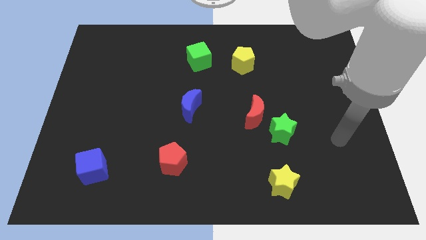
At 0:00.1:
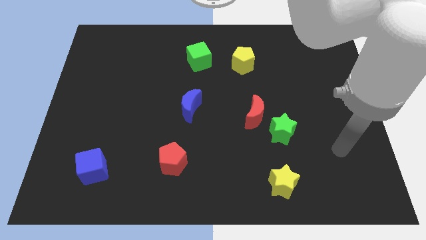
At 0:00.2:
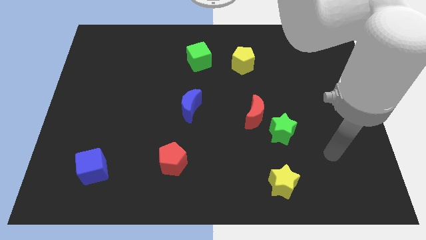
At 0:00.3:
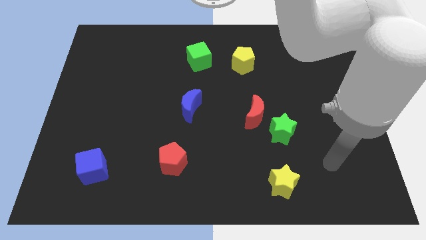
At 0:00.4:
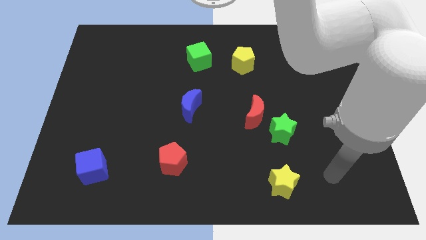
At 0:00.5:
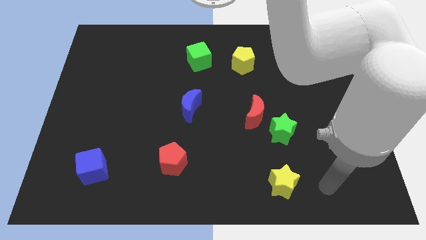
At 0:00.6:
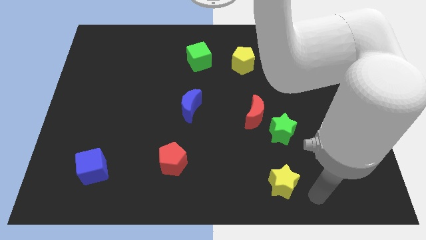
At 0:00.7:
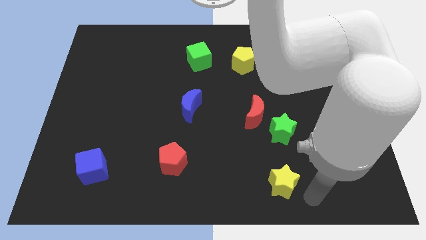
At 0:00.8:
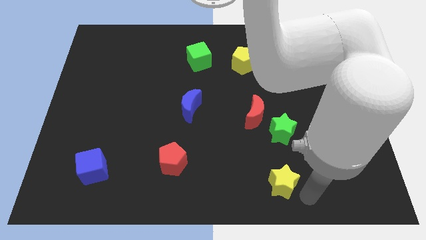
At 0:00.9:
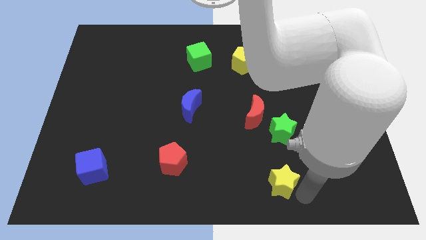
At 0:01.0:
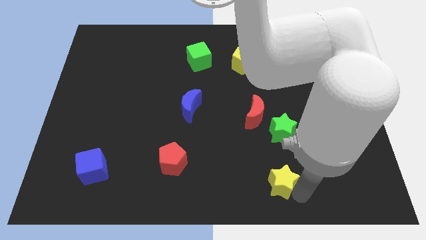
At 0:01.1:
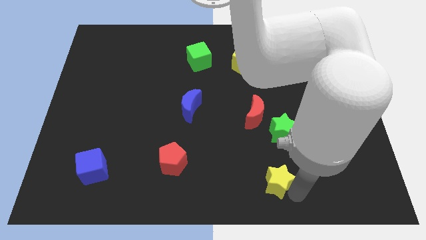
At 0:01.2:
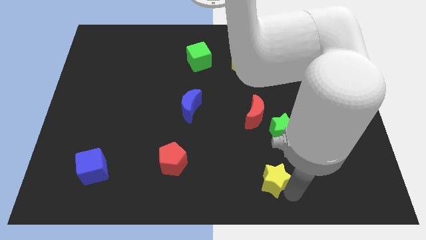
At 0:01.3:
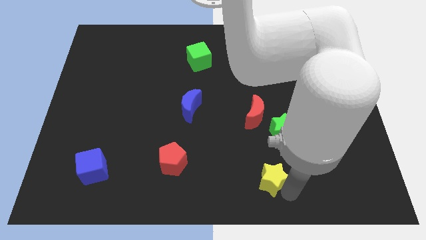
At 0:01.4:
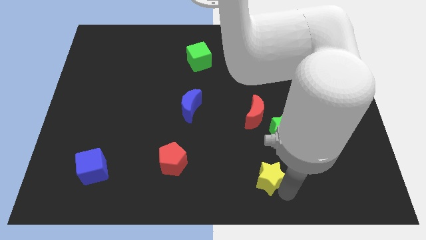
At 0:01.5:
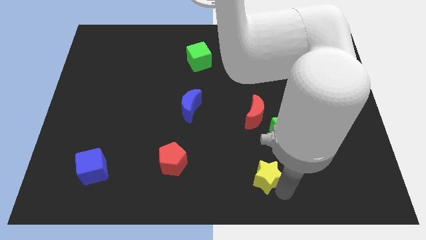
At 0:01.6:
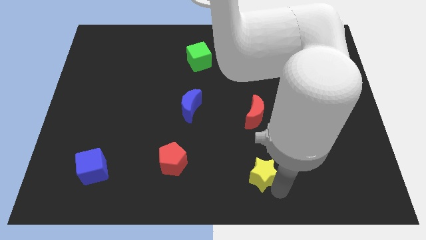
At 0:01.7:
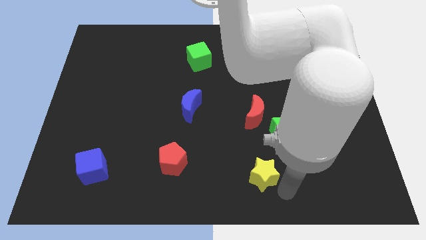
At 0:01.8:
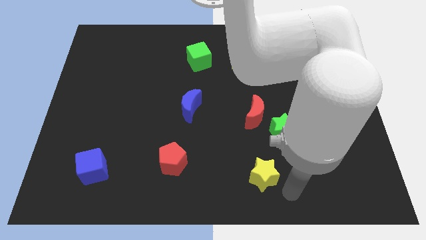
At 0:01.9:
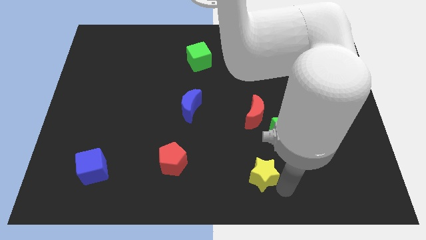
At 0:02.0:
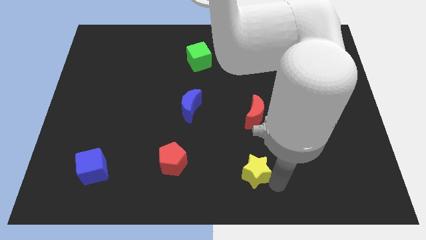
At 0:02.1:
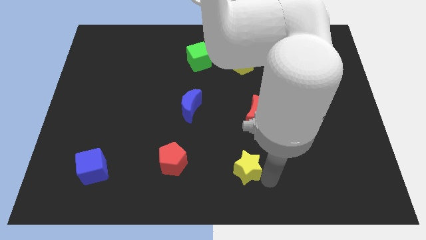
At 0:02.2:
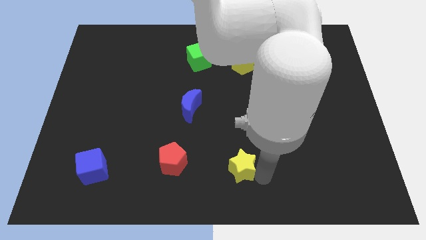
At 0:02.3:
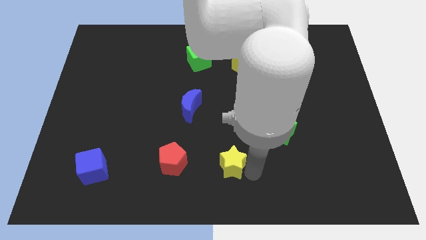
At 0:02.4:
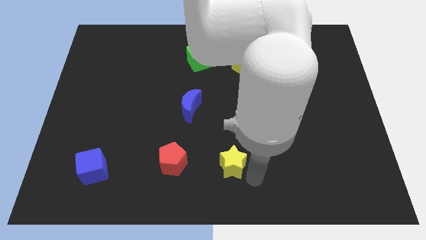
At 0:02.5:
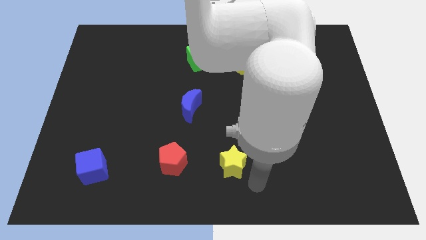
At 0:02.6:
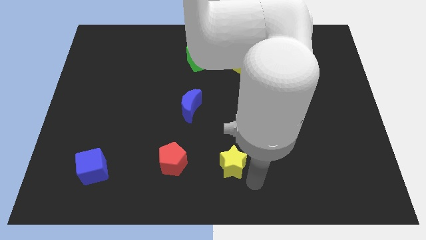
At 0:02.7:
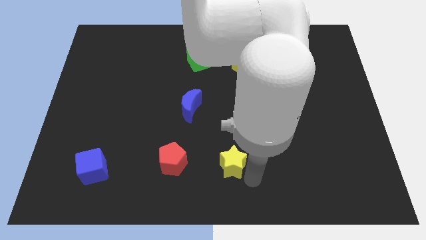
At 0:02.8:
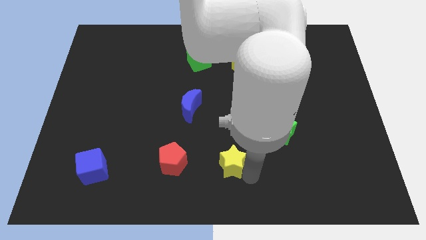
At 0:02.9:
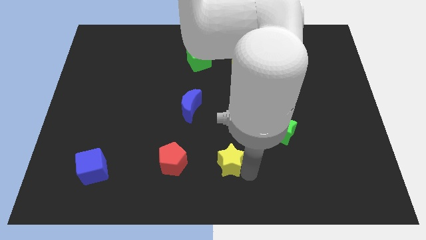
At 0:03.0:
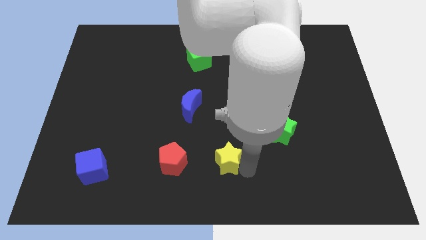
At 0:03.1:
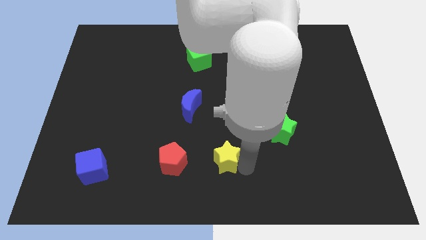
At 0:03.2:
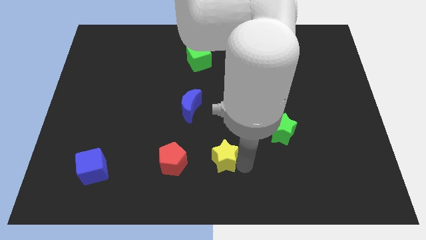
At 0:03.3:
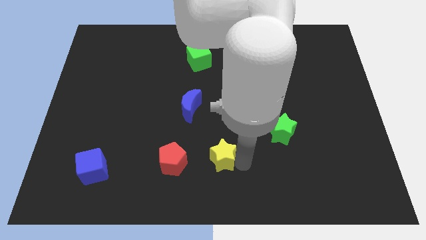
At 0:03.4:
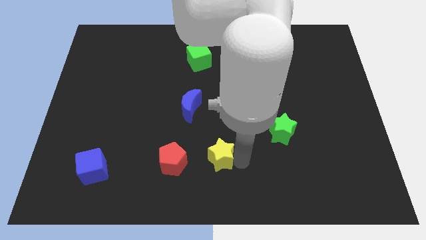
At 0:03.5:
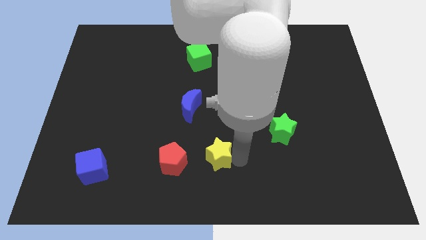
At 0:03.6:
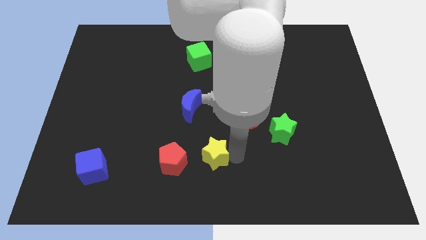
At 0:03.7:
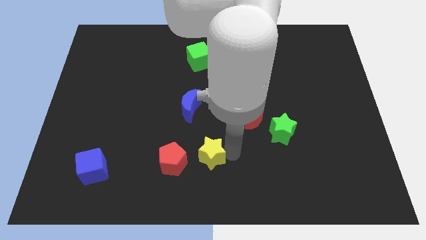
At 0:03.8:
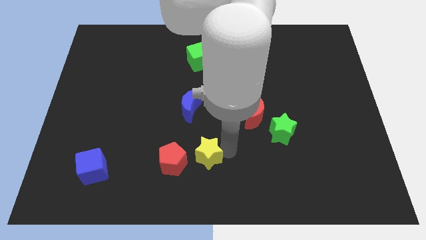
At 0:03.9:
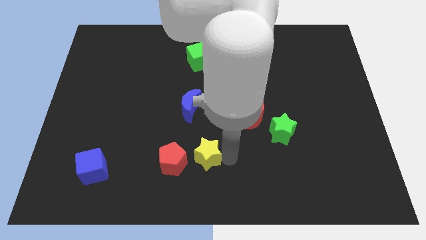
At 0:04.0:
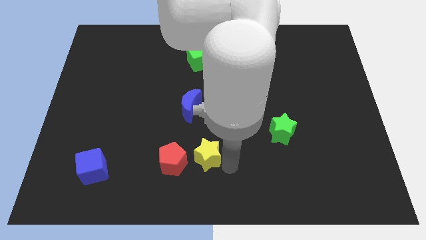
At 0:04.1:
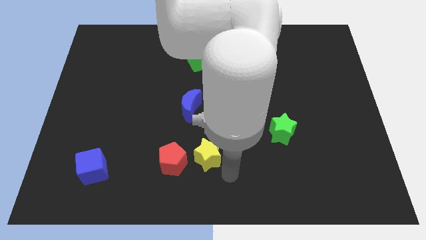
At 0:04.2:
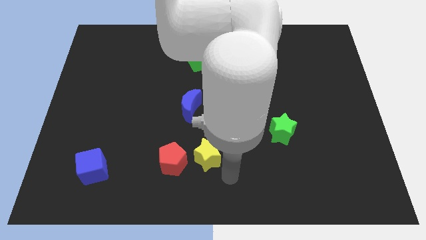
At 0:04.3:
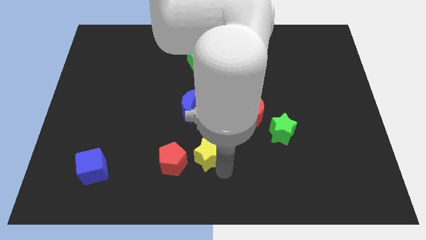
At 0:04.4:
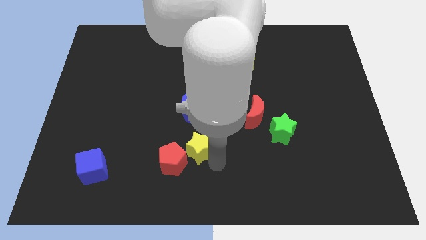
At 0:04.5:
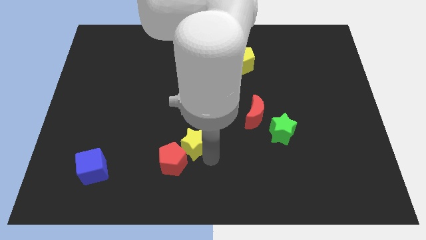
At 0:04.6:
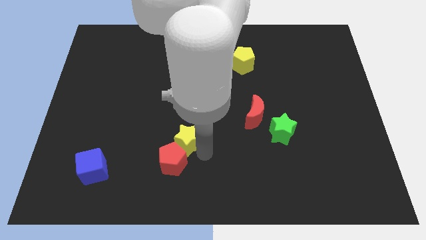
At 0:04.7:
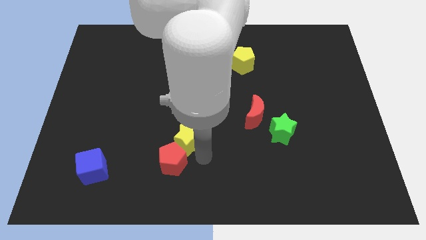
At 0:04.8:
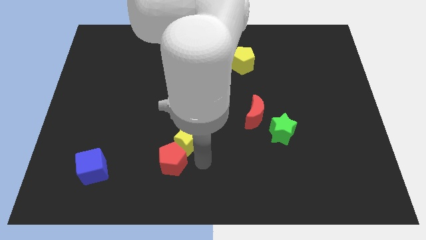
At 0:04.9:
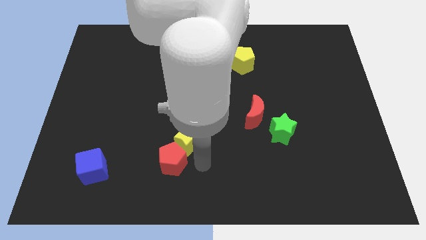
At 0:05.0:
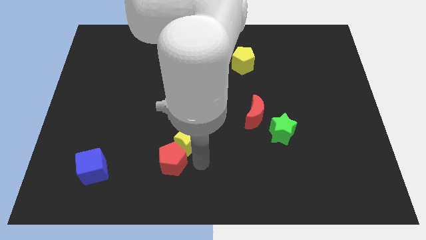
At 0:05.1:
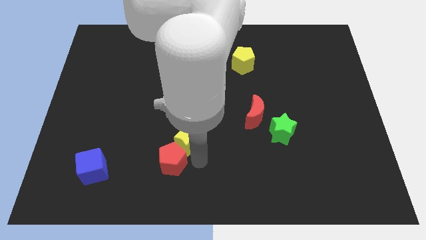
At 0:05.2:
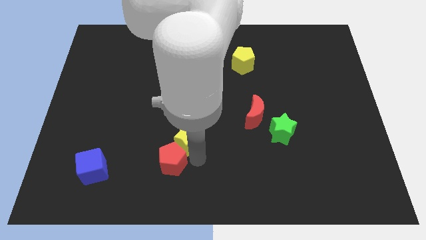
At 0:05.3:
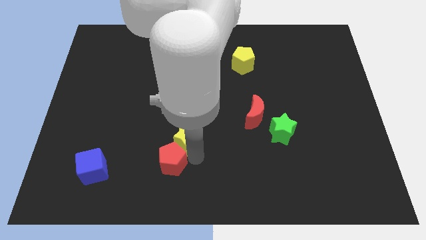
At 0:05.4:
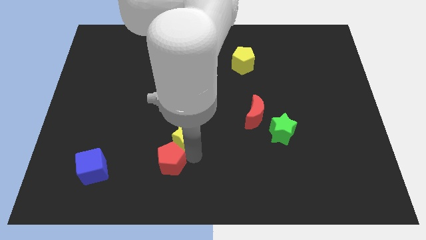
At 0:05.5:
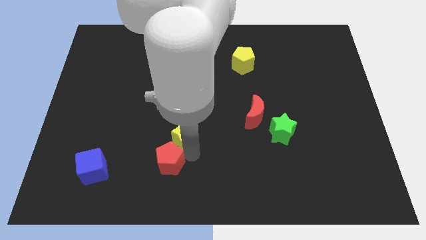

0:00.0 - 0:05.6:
slide the yellow star diagonally up and to the left

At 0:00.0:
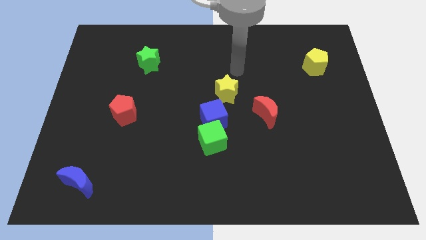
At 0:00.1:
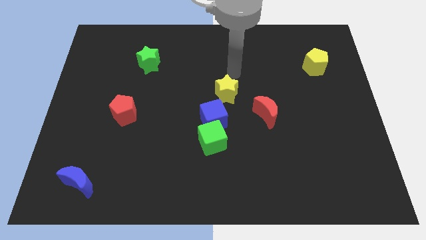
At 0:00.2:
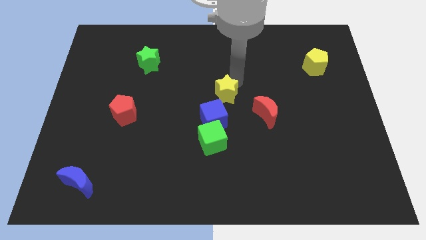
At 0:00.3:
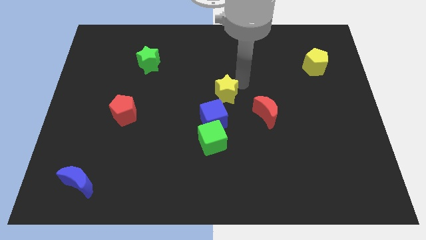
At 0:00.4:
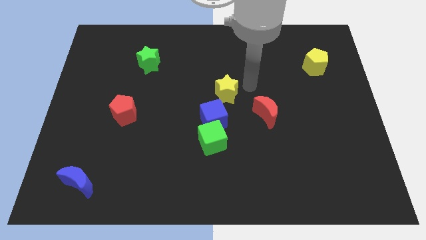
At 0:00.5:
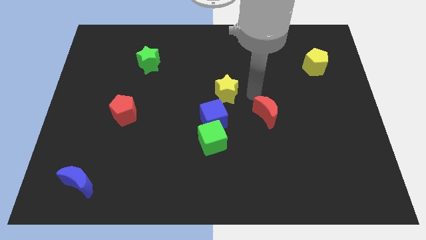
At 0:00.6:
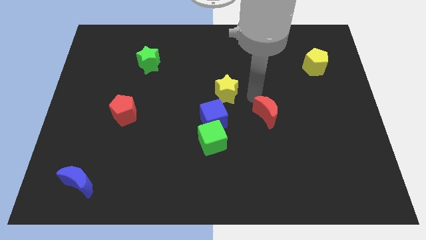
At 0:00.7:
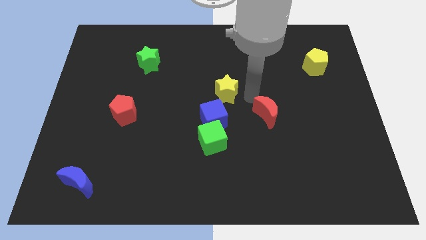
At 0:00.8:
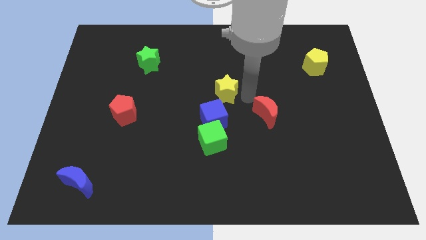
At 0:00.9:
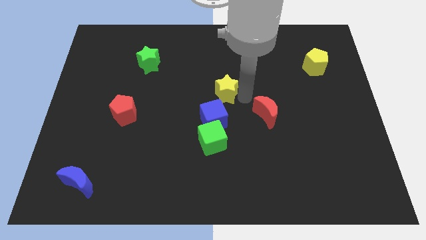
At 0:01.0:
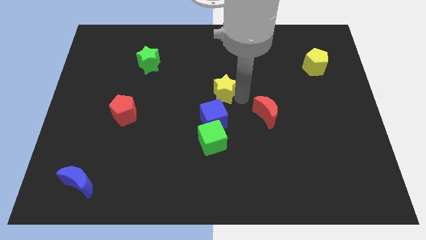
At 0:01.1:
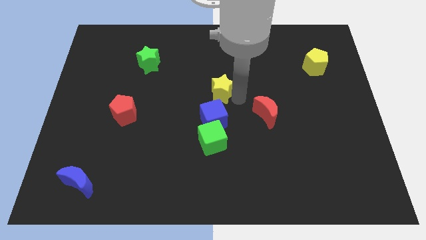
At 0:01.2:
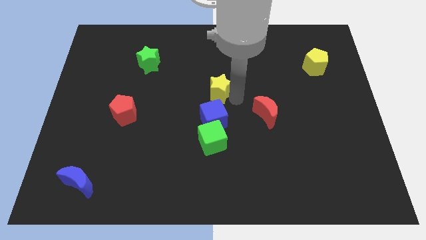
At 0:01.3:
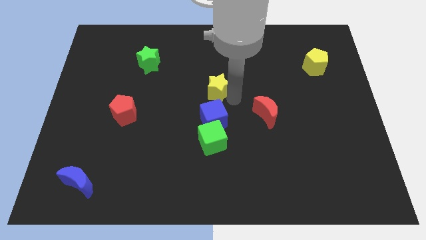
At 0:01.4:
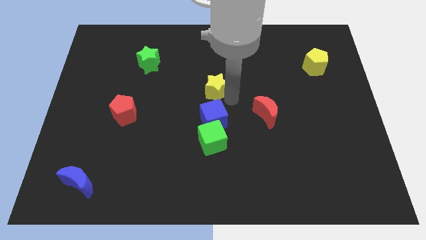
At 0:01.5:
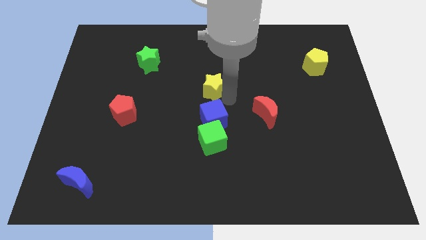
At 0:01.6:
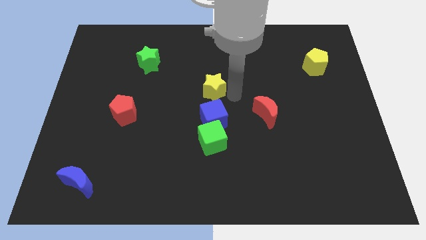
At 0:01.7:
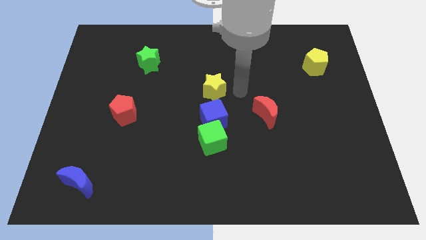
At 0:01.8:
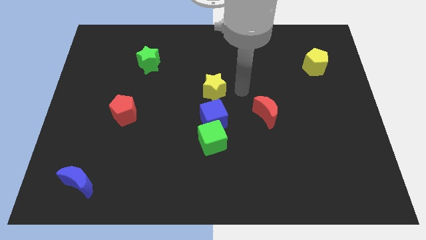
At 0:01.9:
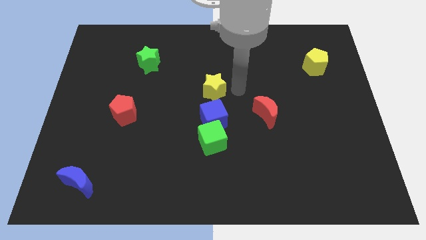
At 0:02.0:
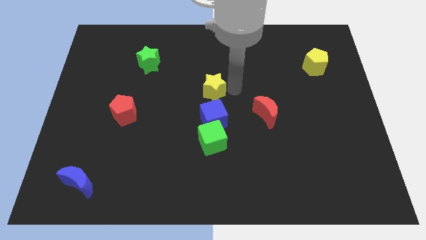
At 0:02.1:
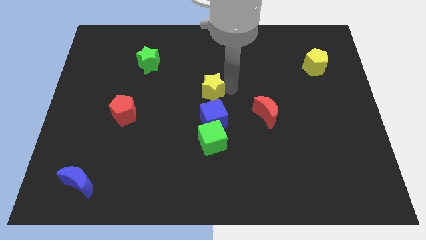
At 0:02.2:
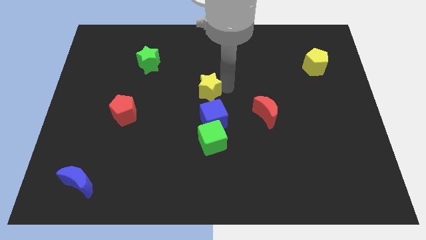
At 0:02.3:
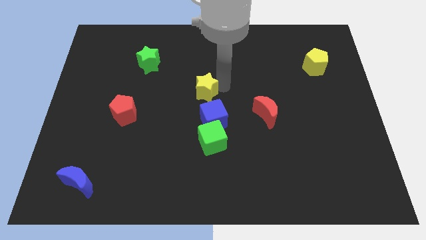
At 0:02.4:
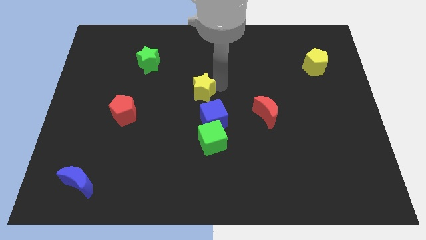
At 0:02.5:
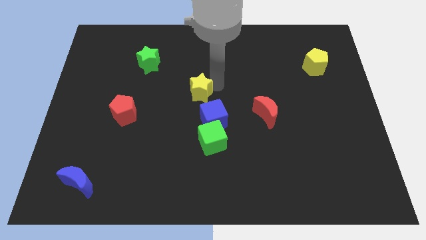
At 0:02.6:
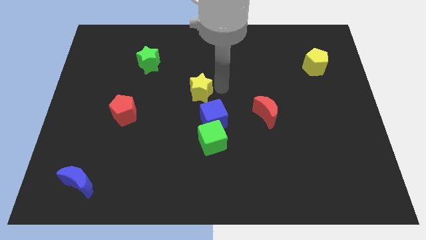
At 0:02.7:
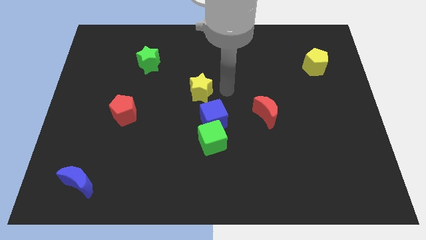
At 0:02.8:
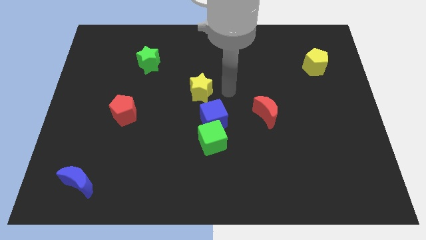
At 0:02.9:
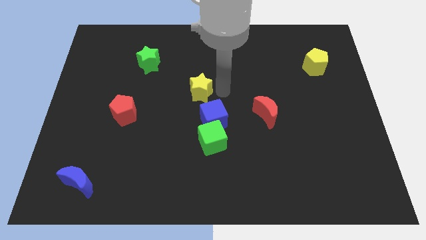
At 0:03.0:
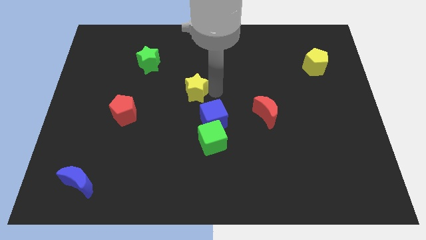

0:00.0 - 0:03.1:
slightly move the yellow star to the left
